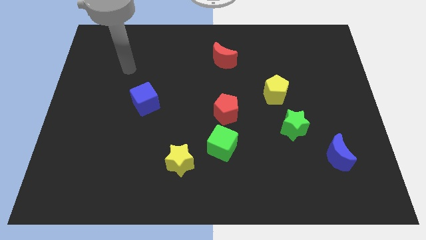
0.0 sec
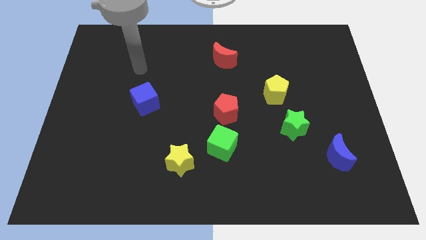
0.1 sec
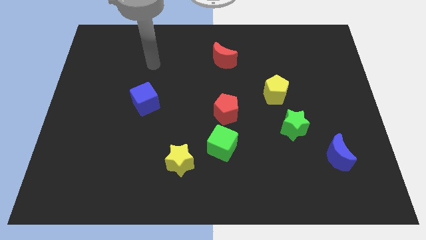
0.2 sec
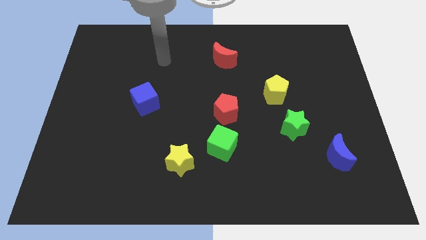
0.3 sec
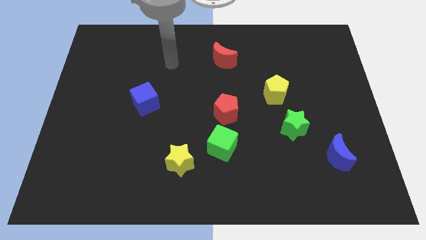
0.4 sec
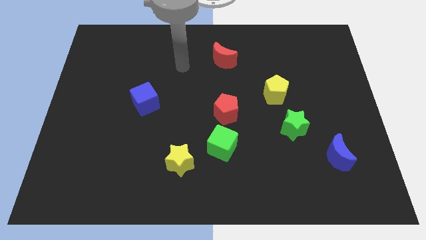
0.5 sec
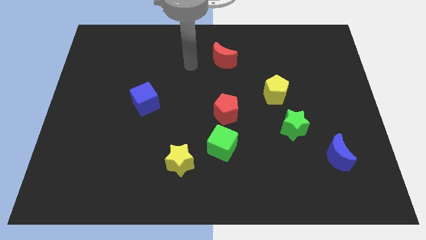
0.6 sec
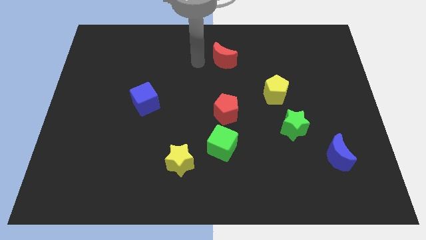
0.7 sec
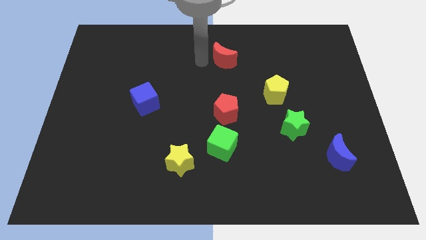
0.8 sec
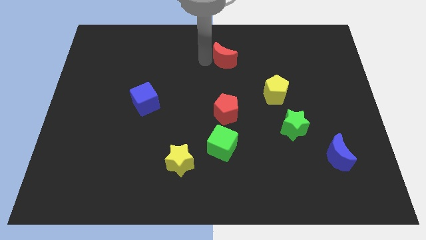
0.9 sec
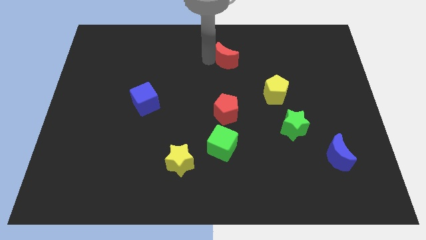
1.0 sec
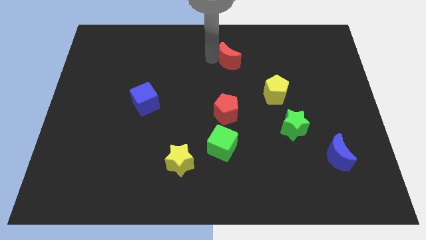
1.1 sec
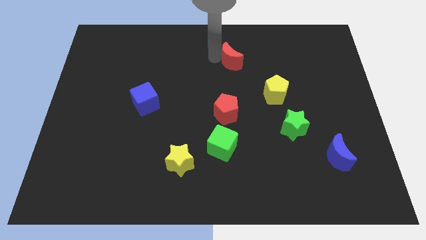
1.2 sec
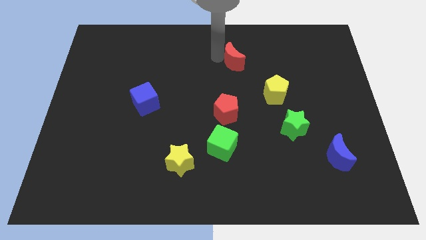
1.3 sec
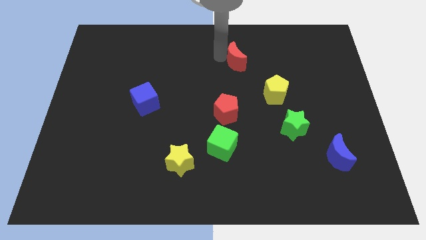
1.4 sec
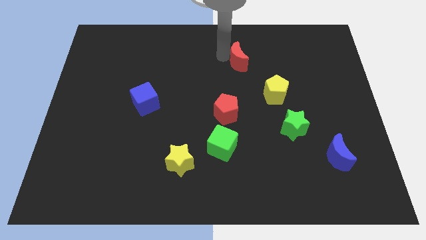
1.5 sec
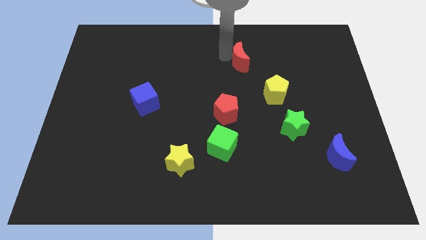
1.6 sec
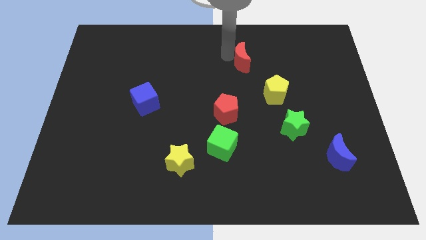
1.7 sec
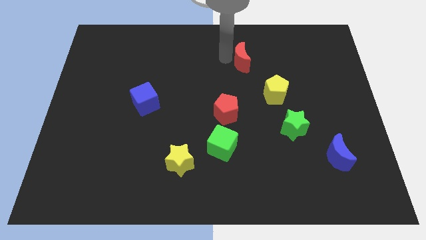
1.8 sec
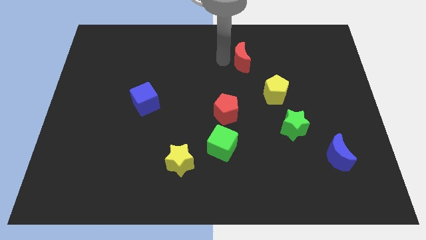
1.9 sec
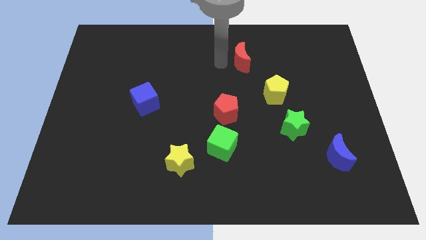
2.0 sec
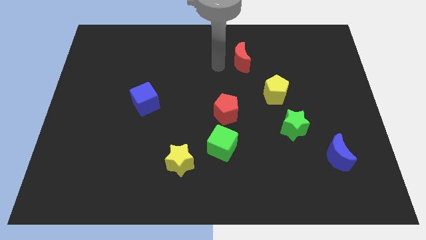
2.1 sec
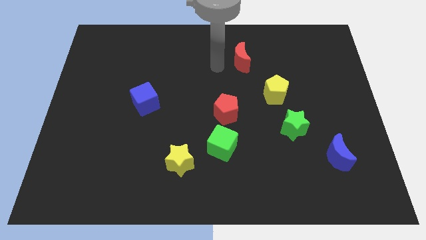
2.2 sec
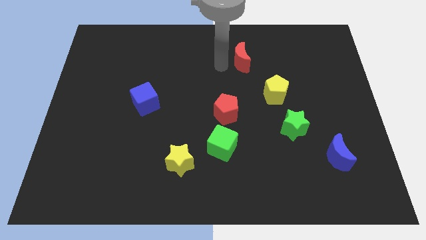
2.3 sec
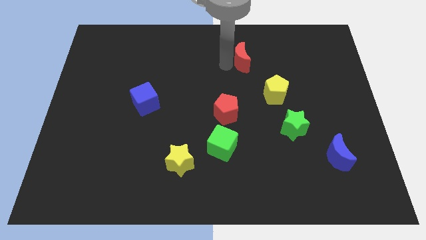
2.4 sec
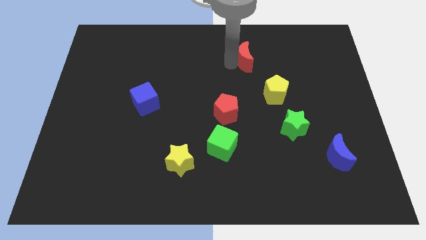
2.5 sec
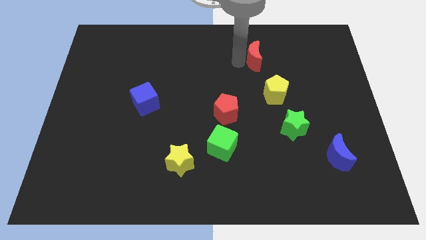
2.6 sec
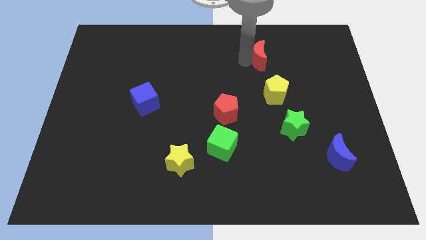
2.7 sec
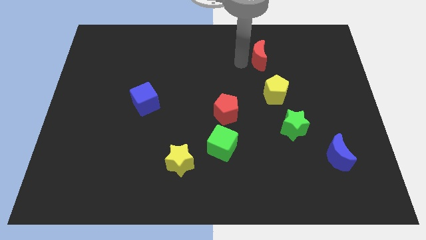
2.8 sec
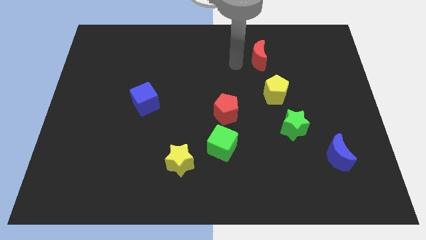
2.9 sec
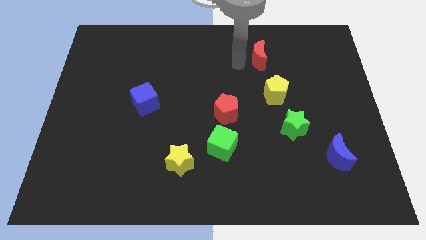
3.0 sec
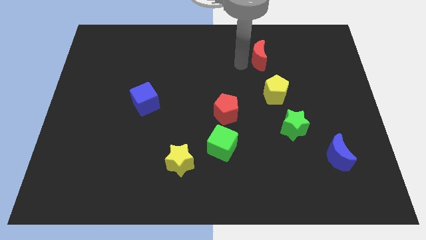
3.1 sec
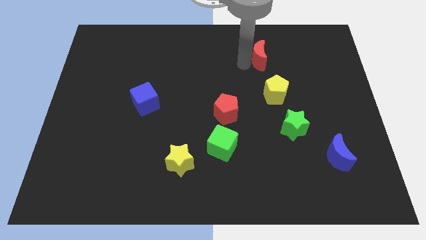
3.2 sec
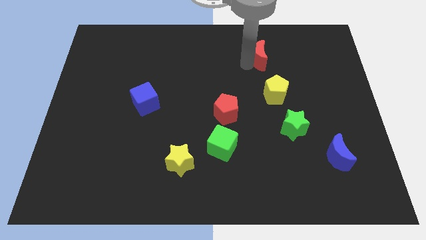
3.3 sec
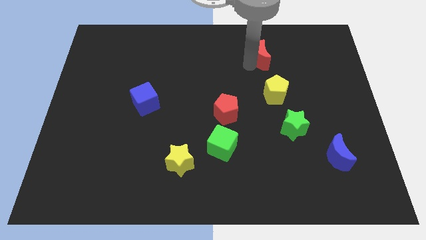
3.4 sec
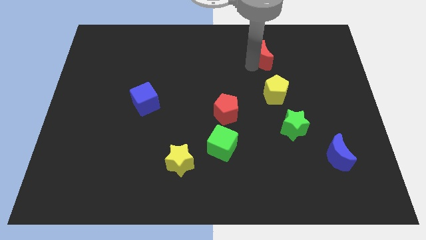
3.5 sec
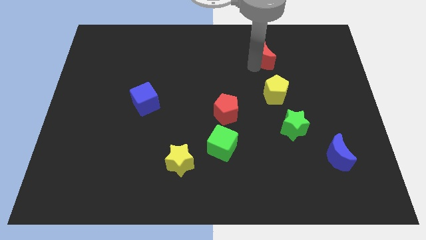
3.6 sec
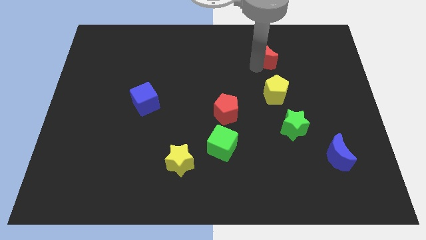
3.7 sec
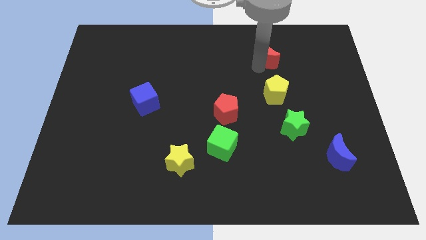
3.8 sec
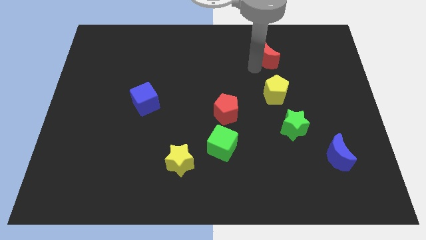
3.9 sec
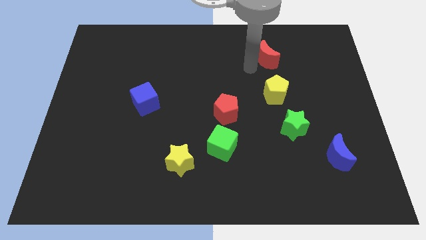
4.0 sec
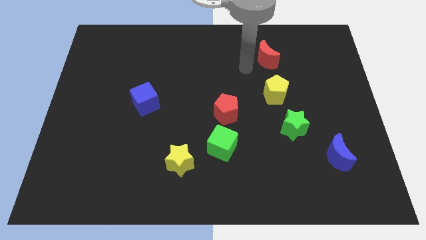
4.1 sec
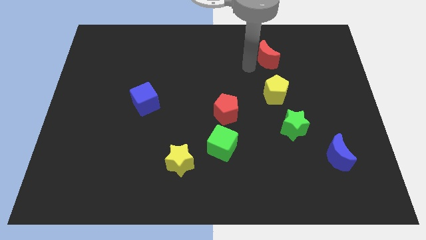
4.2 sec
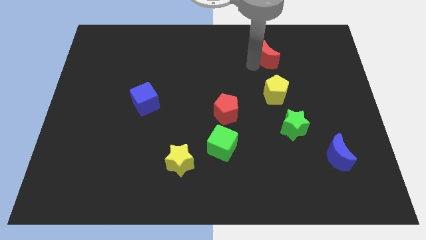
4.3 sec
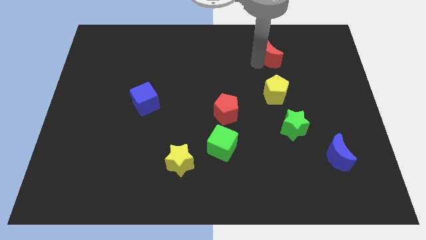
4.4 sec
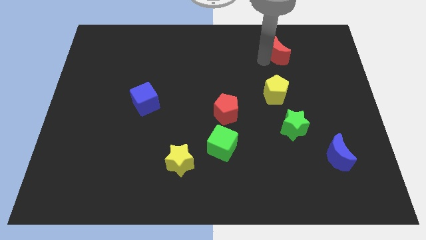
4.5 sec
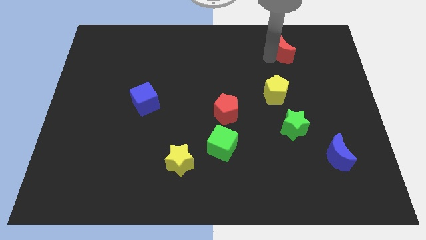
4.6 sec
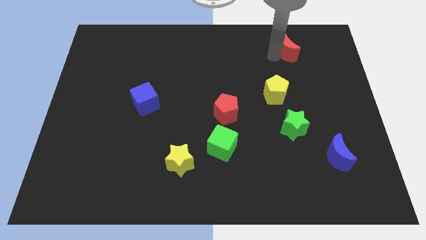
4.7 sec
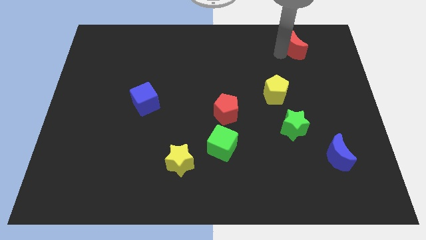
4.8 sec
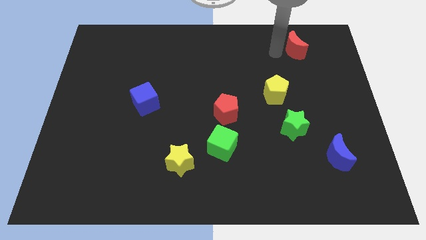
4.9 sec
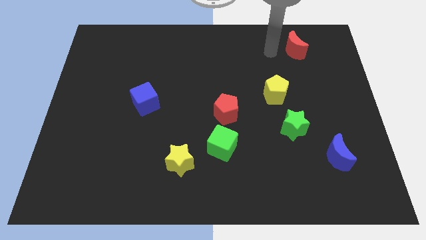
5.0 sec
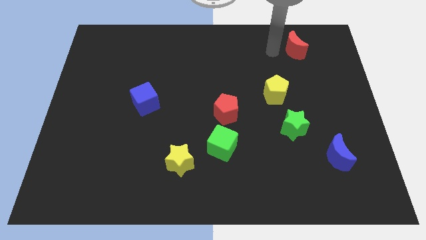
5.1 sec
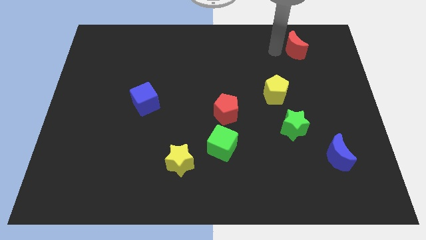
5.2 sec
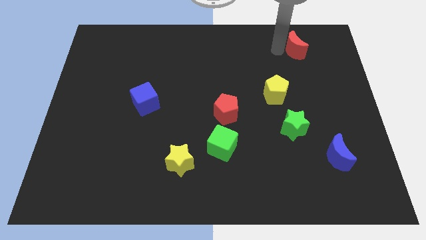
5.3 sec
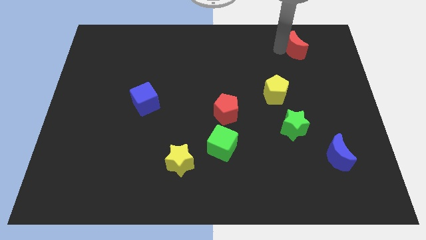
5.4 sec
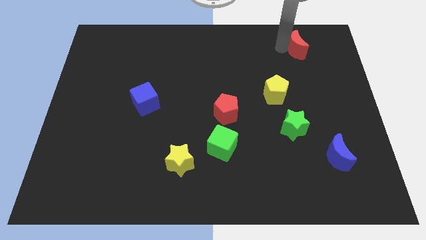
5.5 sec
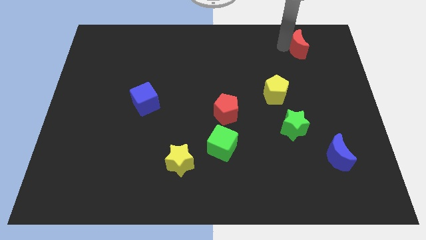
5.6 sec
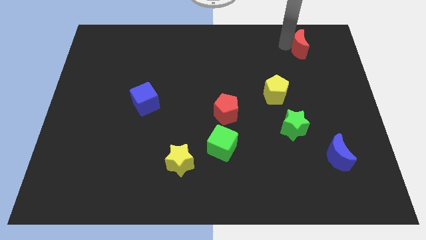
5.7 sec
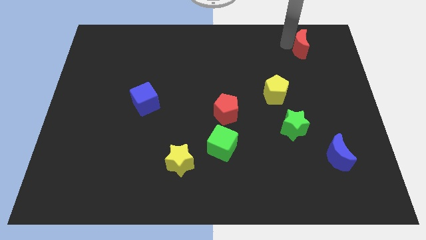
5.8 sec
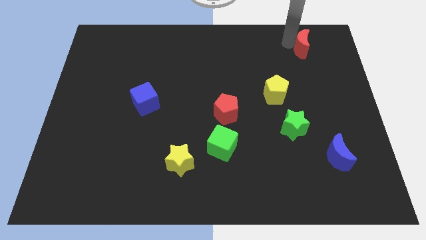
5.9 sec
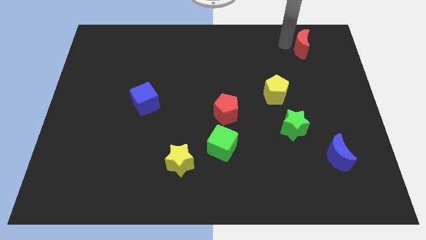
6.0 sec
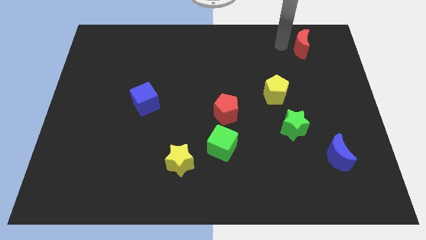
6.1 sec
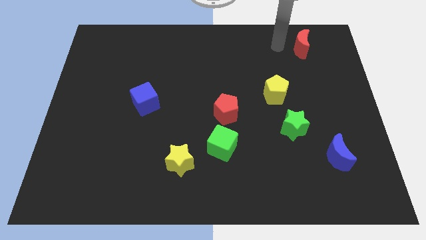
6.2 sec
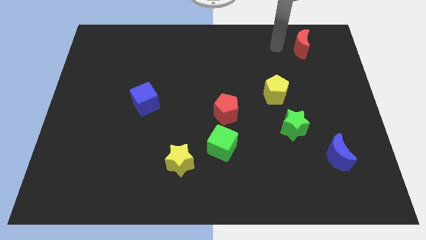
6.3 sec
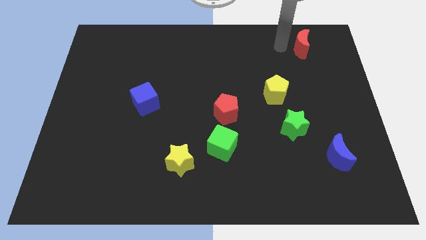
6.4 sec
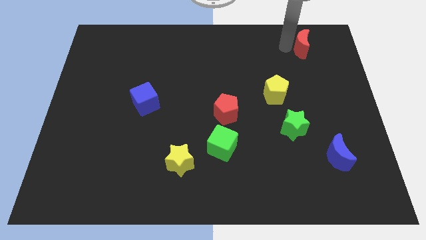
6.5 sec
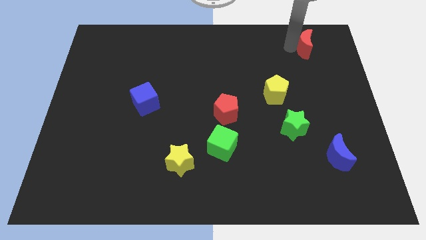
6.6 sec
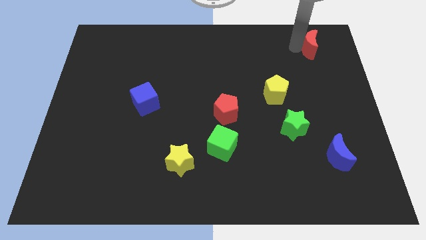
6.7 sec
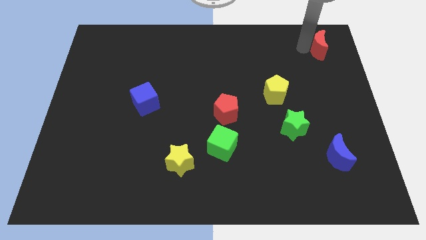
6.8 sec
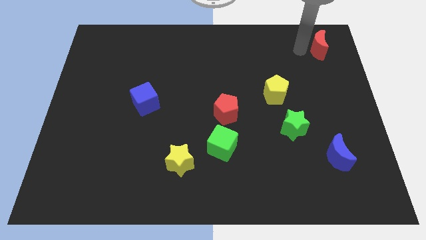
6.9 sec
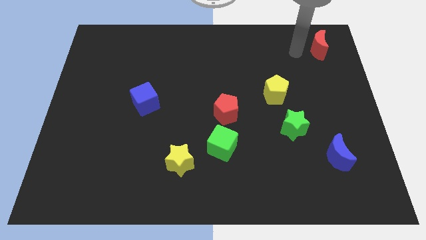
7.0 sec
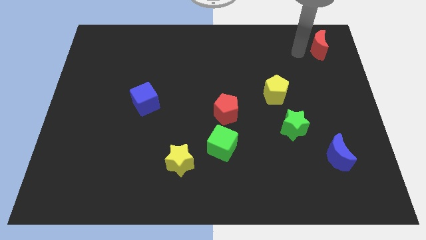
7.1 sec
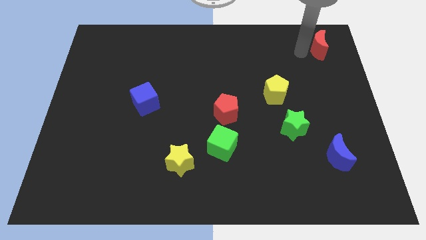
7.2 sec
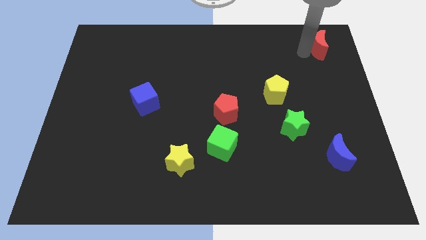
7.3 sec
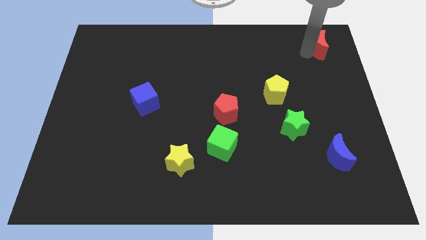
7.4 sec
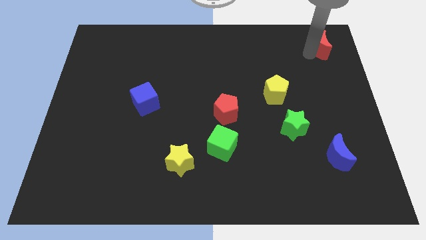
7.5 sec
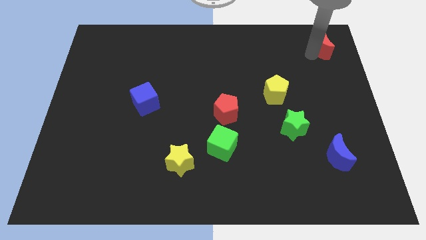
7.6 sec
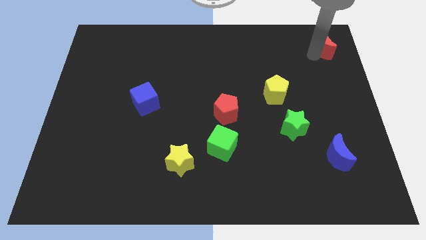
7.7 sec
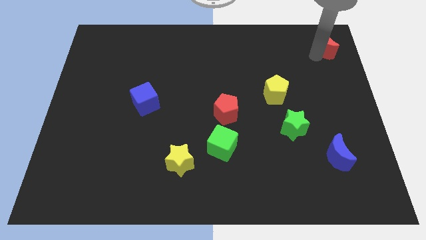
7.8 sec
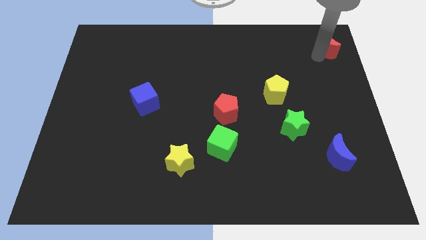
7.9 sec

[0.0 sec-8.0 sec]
push the red moon to the top right of the board
